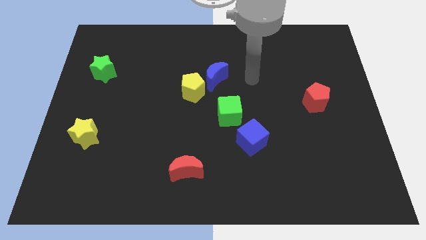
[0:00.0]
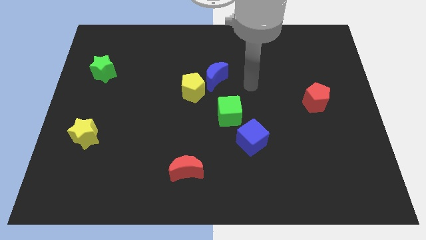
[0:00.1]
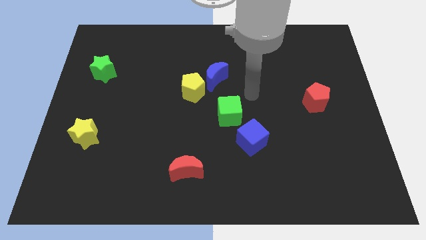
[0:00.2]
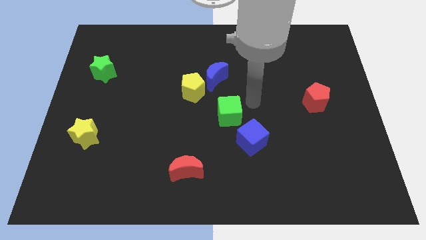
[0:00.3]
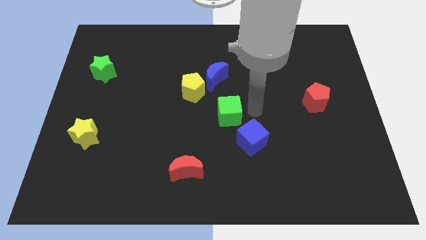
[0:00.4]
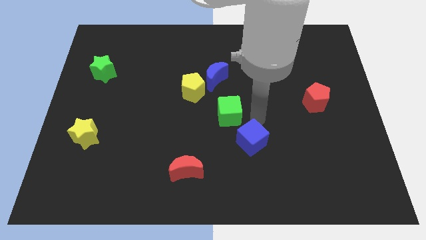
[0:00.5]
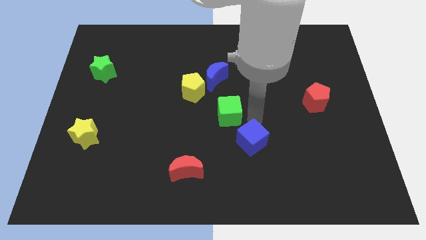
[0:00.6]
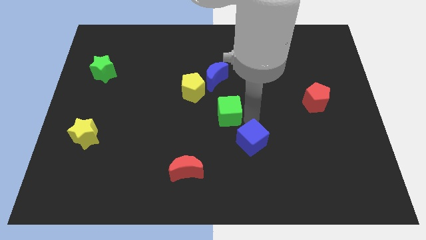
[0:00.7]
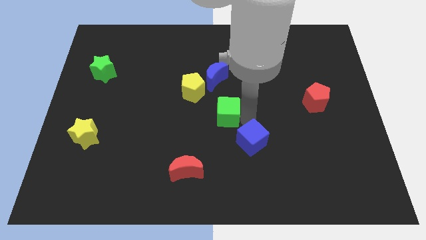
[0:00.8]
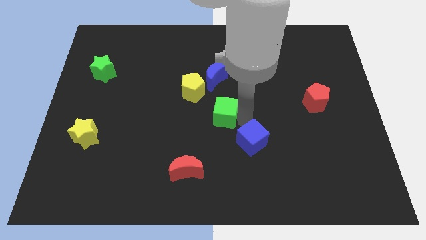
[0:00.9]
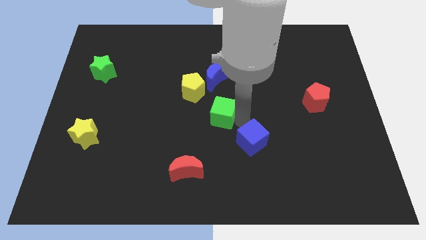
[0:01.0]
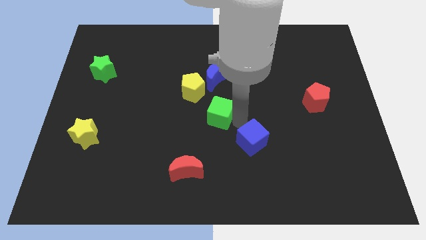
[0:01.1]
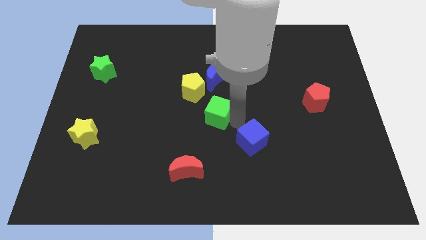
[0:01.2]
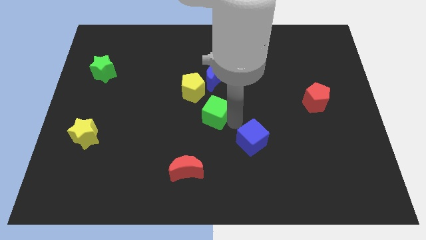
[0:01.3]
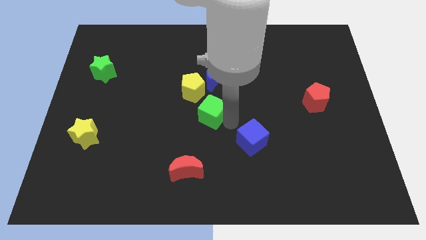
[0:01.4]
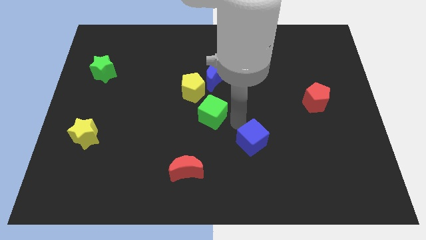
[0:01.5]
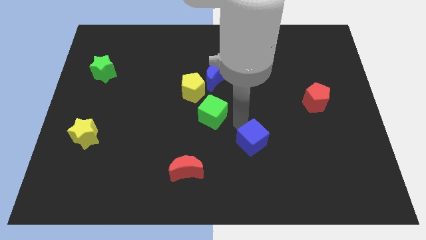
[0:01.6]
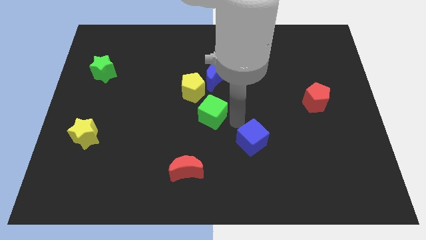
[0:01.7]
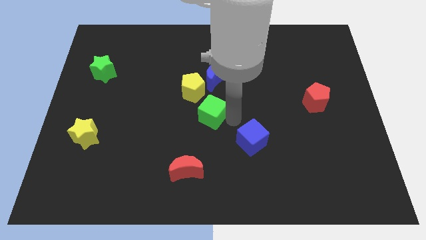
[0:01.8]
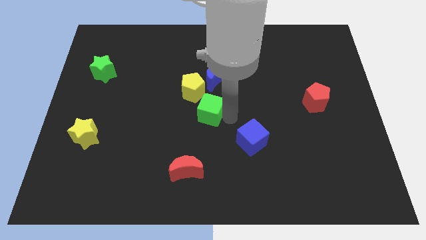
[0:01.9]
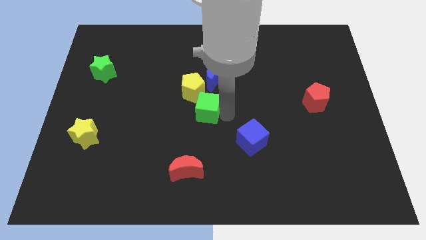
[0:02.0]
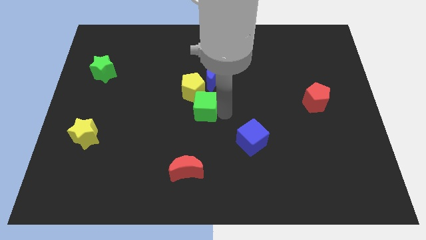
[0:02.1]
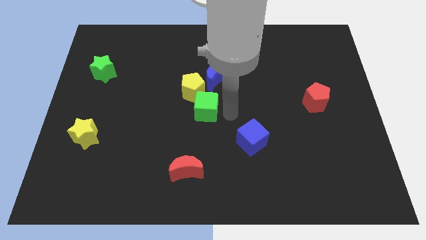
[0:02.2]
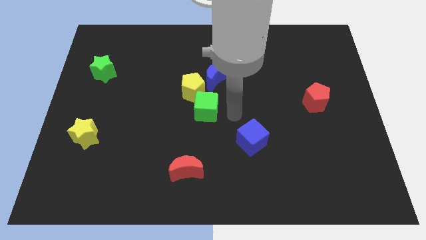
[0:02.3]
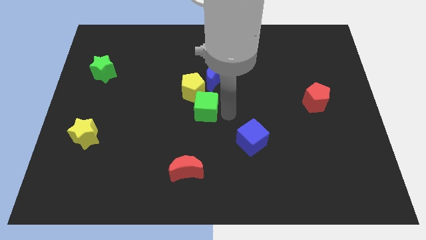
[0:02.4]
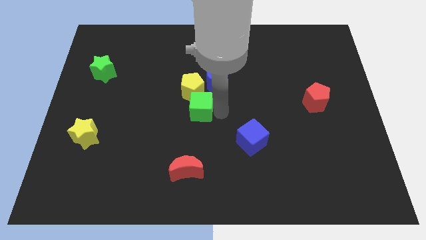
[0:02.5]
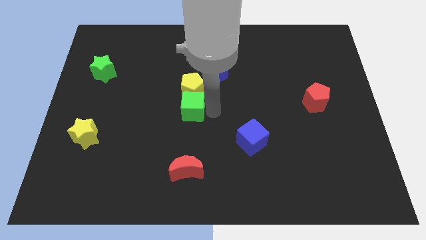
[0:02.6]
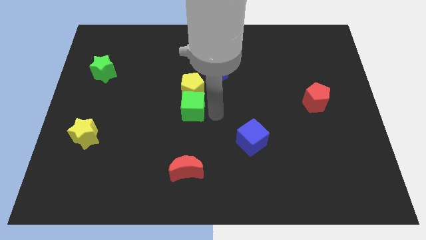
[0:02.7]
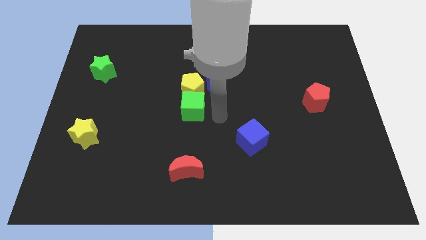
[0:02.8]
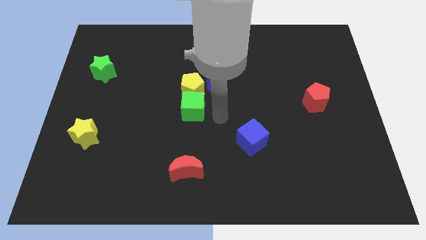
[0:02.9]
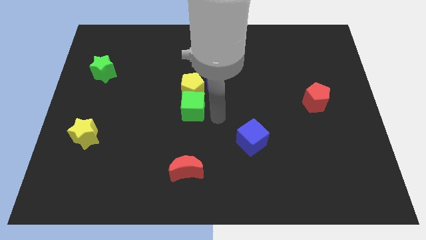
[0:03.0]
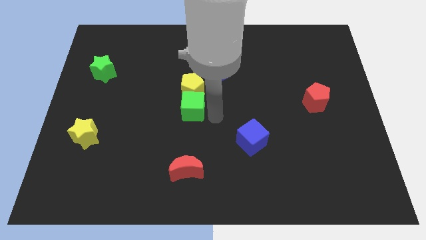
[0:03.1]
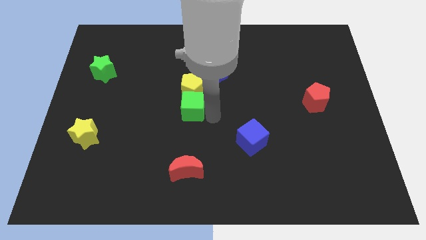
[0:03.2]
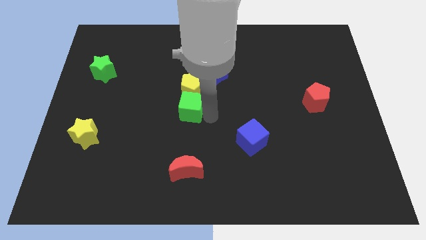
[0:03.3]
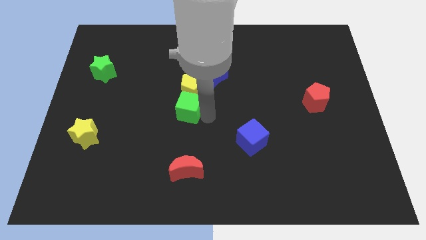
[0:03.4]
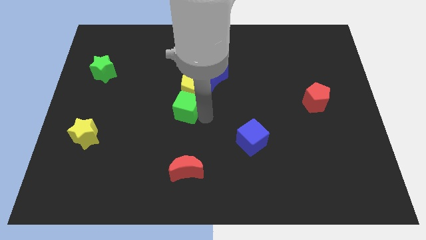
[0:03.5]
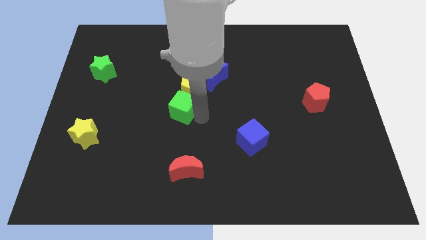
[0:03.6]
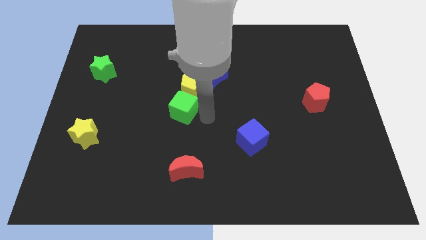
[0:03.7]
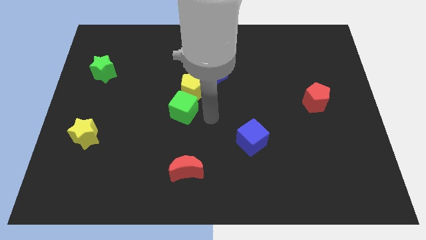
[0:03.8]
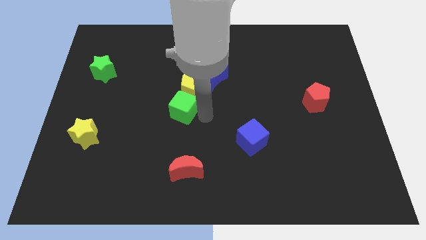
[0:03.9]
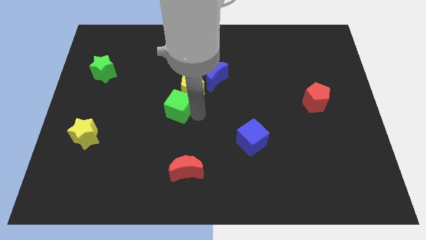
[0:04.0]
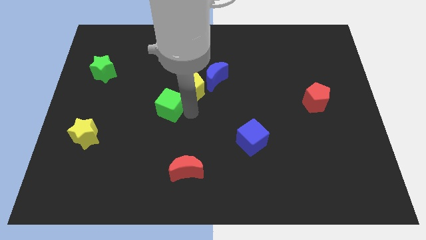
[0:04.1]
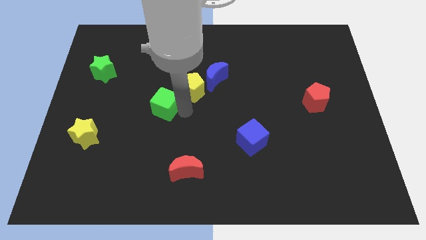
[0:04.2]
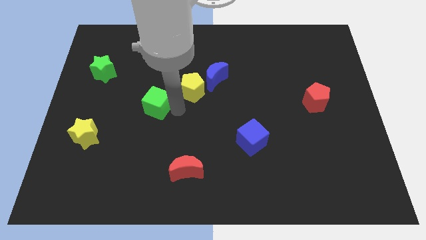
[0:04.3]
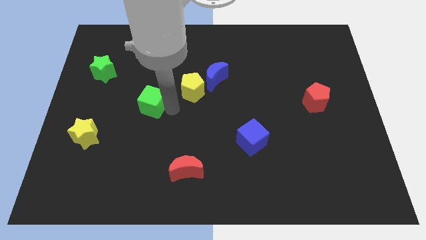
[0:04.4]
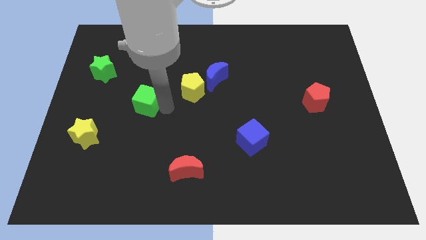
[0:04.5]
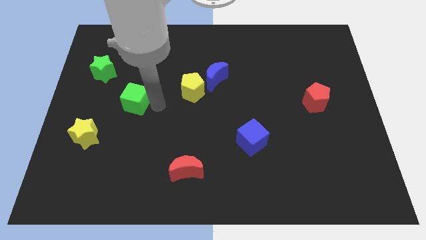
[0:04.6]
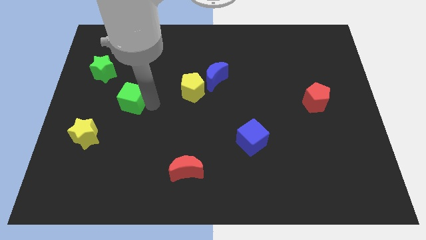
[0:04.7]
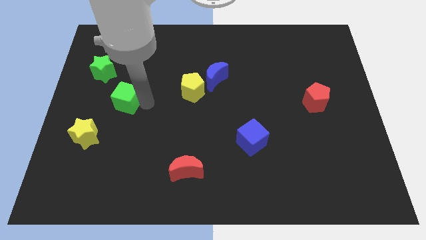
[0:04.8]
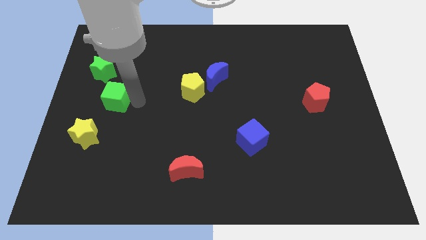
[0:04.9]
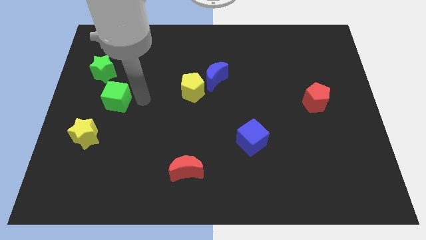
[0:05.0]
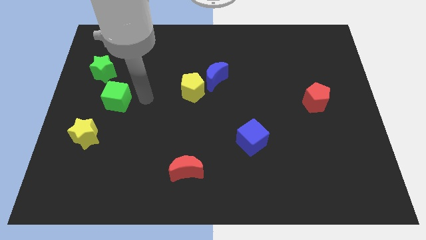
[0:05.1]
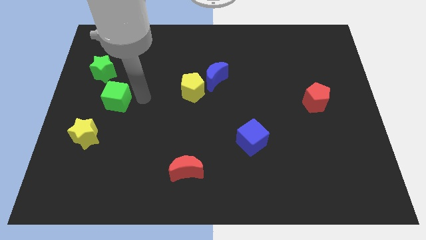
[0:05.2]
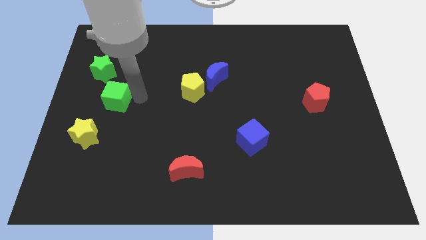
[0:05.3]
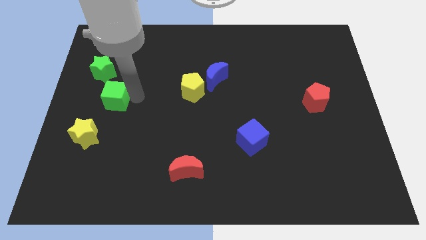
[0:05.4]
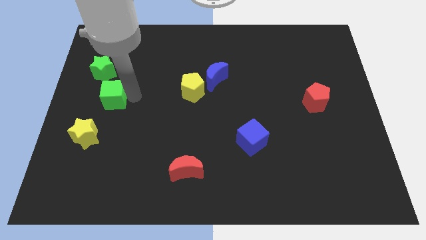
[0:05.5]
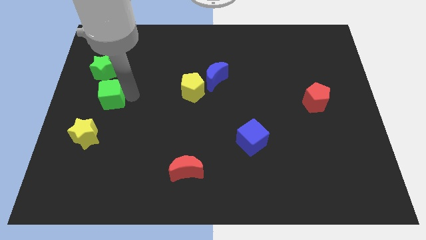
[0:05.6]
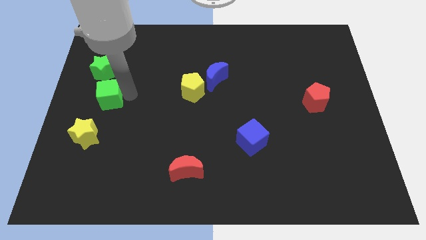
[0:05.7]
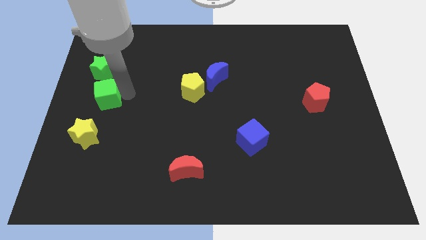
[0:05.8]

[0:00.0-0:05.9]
slide the green cube to the left side of the board

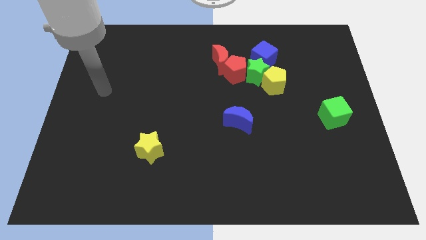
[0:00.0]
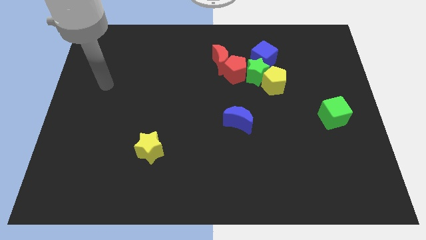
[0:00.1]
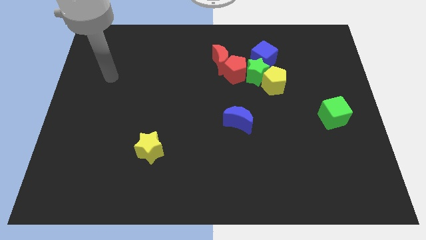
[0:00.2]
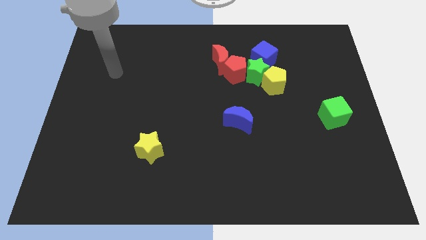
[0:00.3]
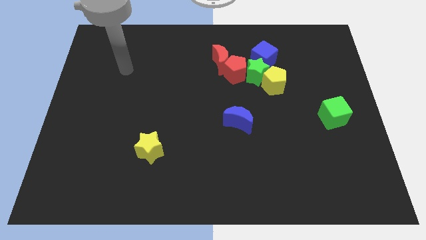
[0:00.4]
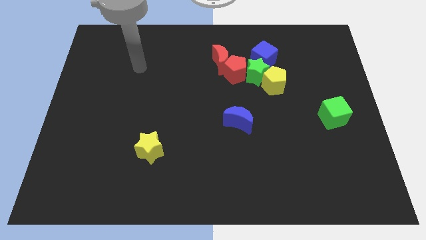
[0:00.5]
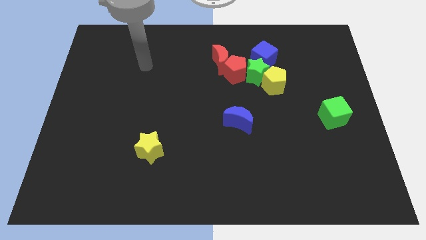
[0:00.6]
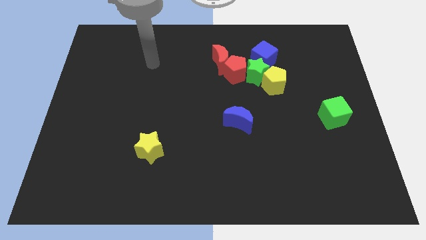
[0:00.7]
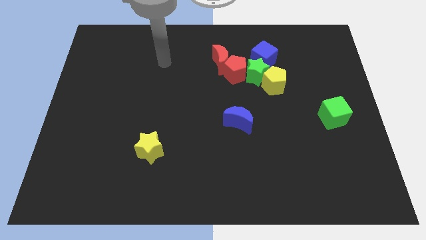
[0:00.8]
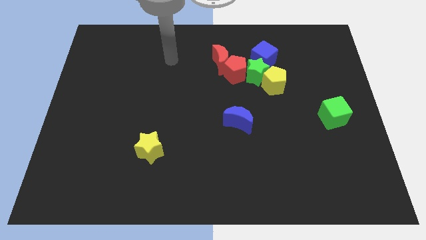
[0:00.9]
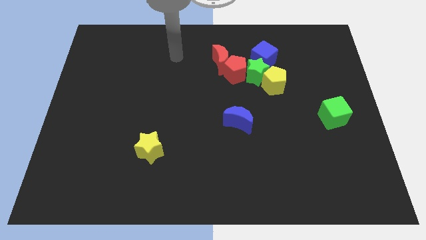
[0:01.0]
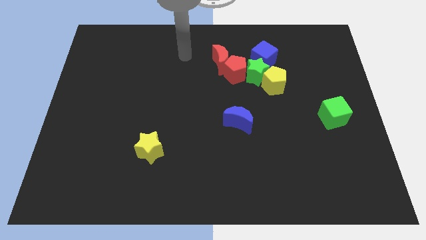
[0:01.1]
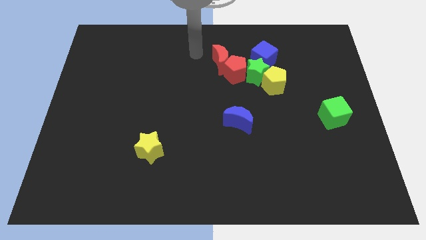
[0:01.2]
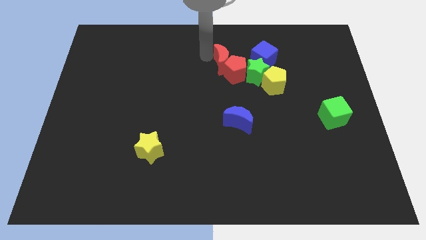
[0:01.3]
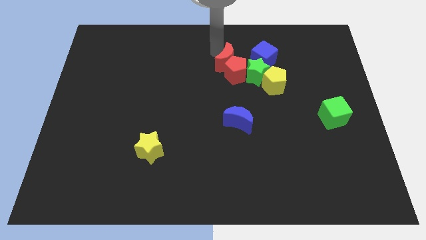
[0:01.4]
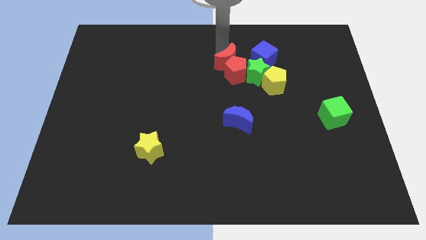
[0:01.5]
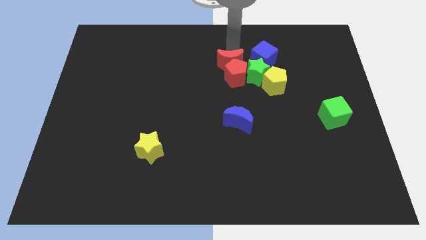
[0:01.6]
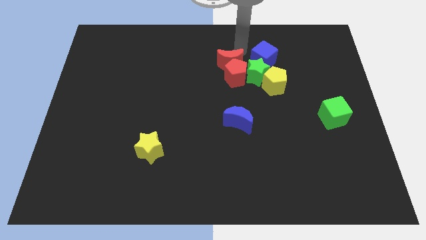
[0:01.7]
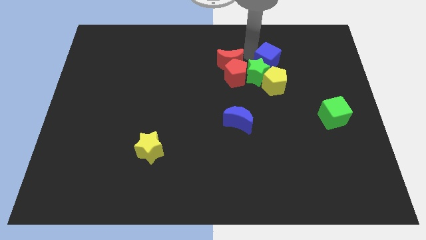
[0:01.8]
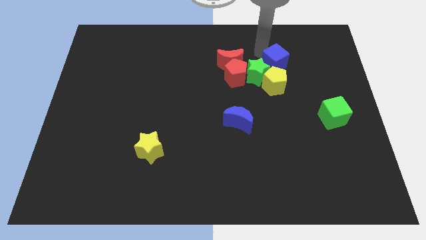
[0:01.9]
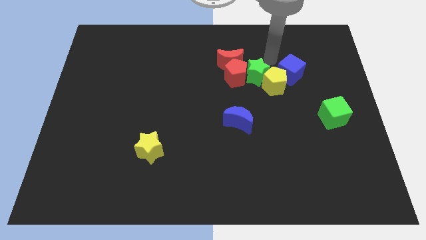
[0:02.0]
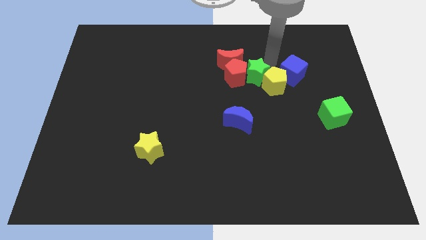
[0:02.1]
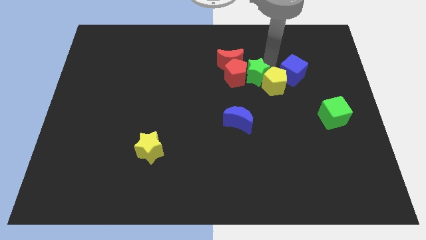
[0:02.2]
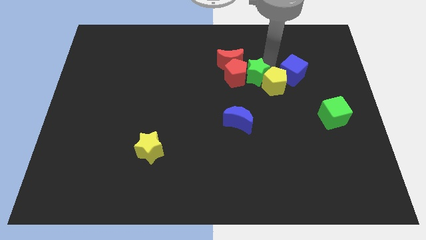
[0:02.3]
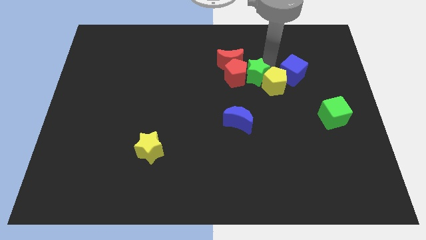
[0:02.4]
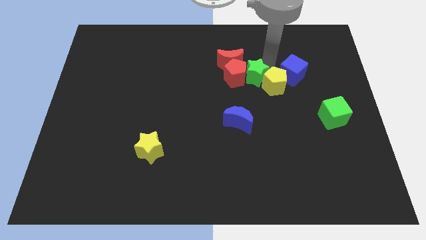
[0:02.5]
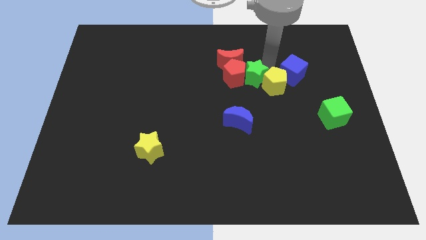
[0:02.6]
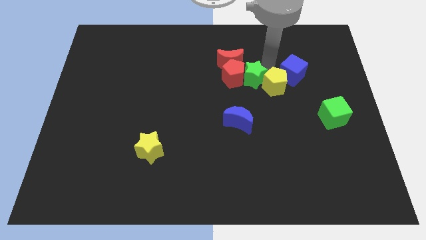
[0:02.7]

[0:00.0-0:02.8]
move the green star to the center of the board
